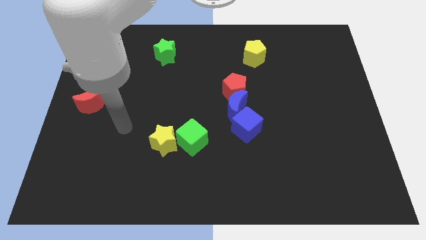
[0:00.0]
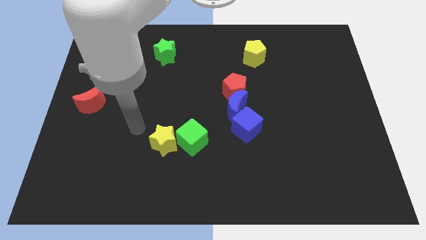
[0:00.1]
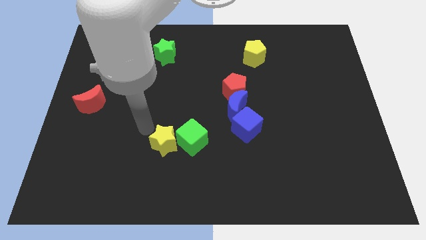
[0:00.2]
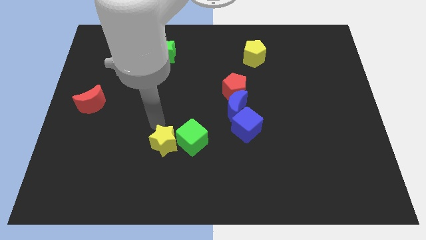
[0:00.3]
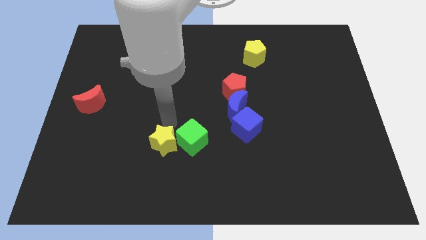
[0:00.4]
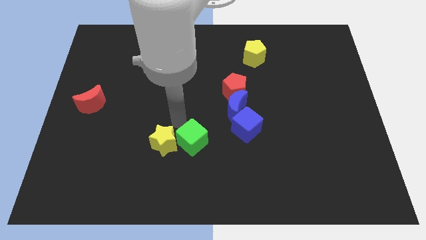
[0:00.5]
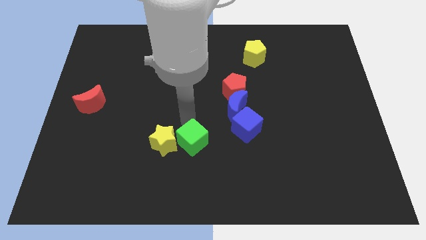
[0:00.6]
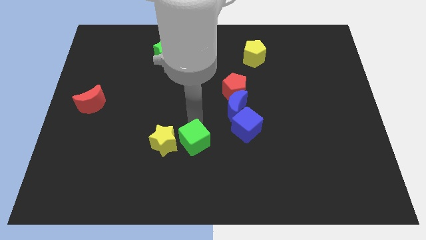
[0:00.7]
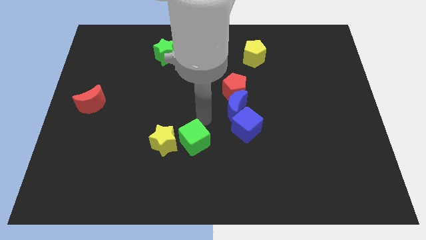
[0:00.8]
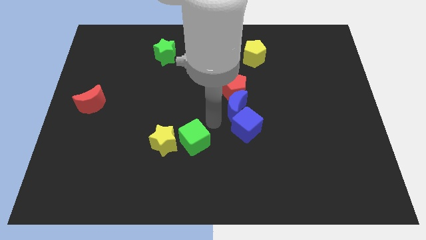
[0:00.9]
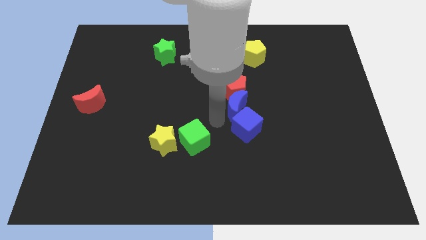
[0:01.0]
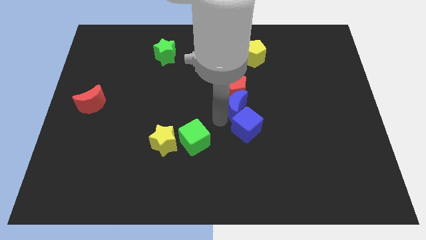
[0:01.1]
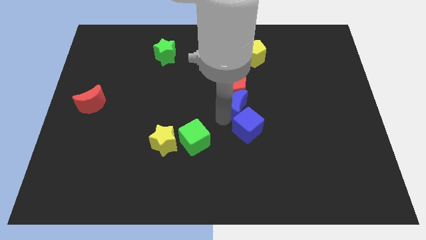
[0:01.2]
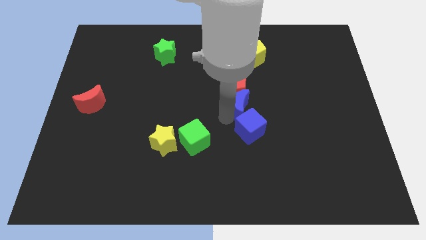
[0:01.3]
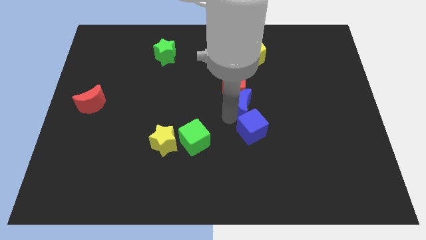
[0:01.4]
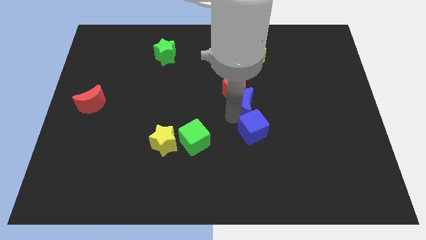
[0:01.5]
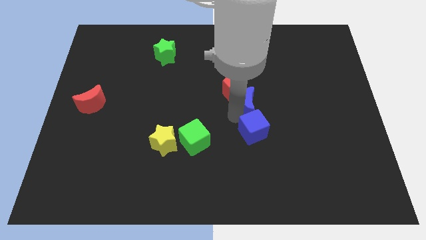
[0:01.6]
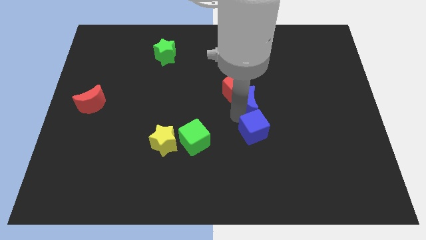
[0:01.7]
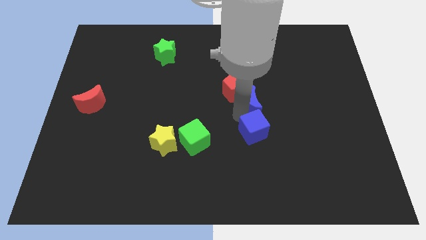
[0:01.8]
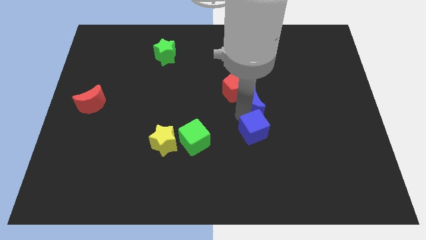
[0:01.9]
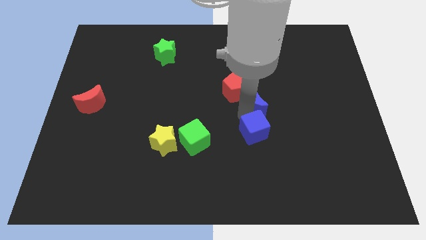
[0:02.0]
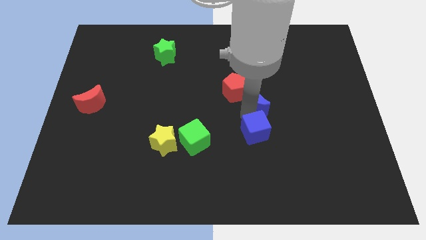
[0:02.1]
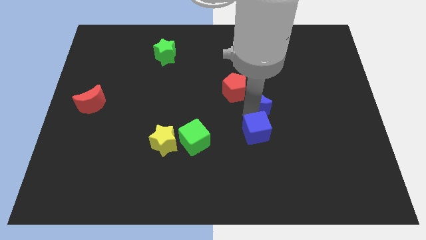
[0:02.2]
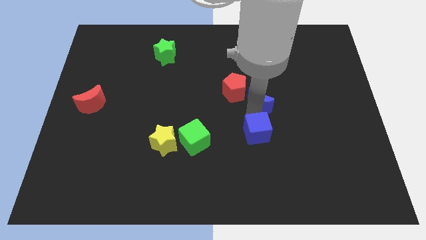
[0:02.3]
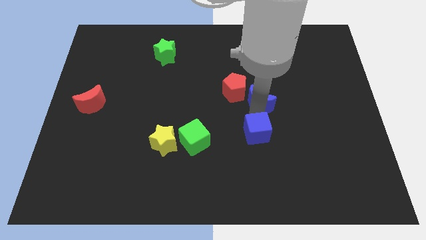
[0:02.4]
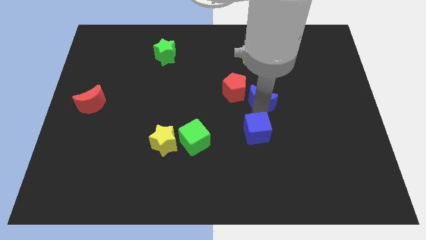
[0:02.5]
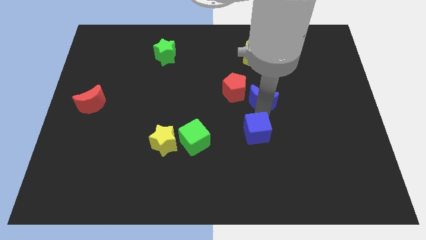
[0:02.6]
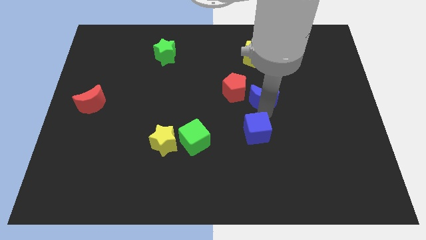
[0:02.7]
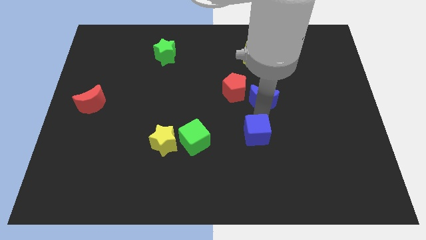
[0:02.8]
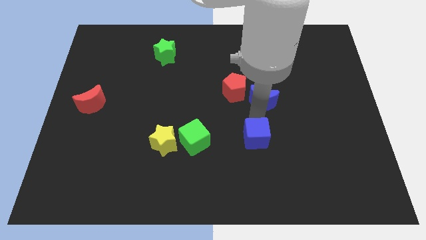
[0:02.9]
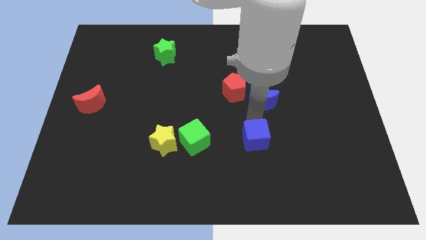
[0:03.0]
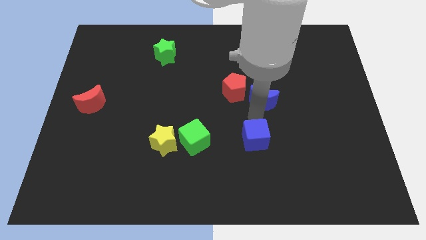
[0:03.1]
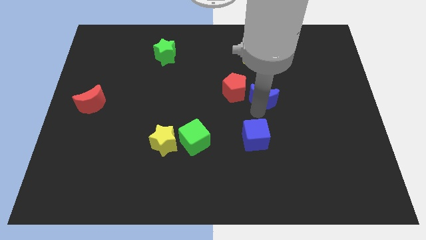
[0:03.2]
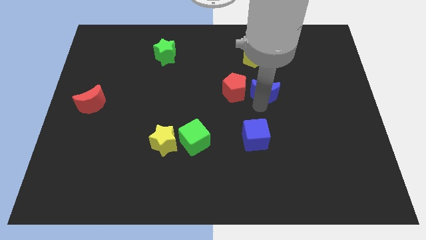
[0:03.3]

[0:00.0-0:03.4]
slide the blue moon diagonally up and right a bit

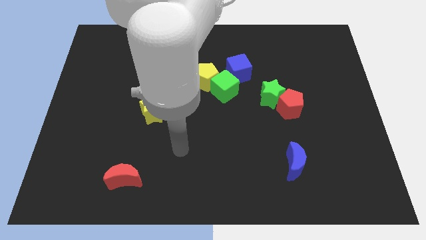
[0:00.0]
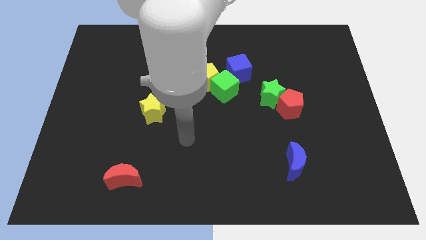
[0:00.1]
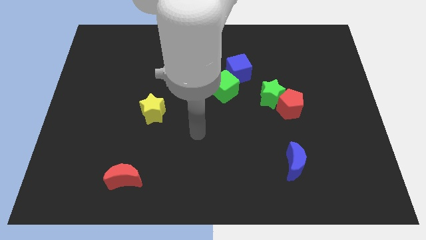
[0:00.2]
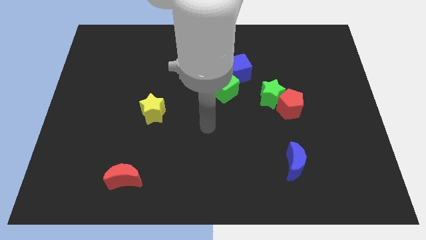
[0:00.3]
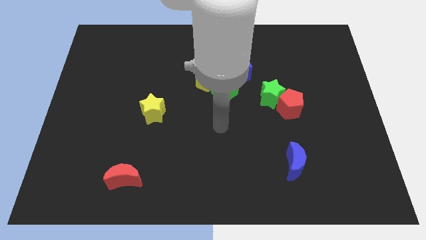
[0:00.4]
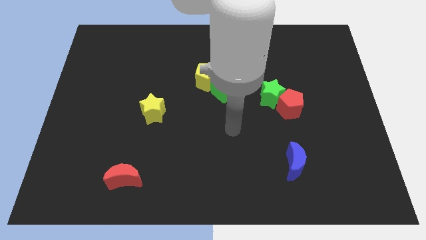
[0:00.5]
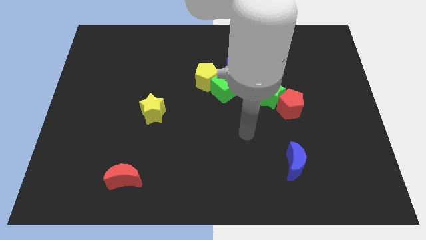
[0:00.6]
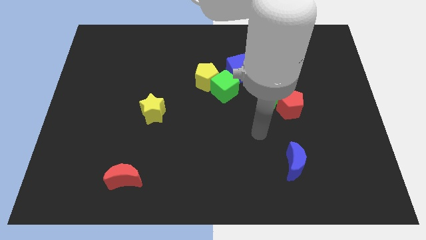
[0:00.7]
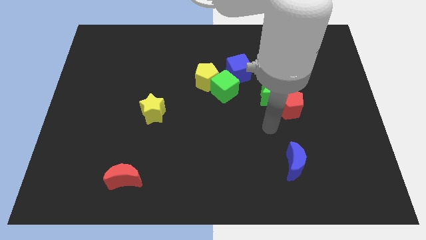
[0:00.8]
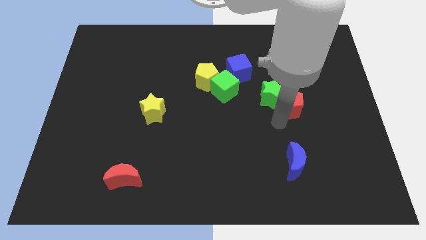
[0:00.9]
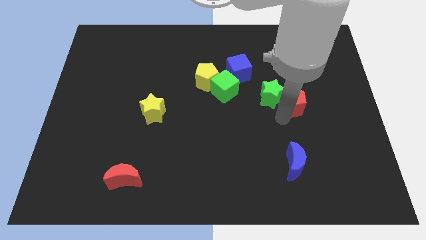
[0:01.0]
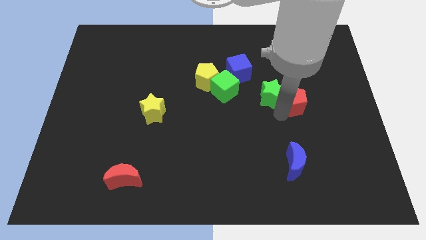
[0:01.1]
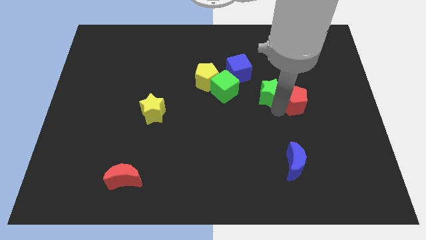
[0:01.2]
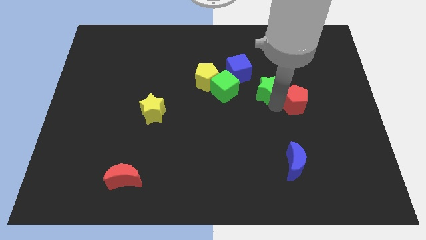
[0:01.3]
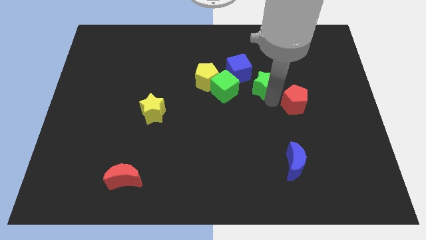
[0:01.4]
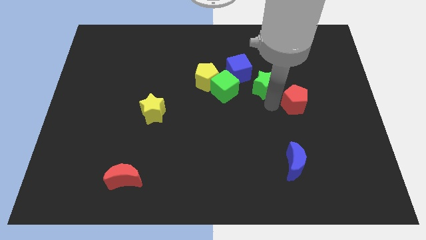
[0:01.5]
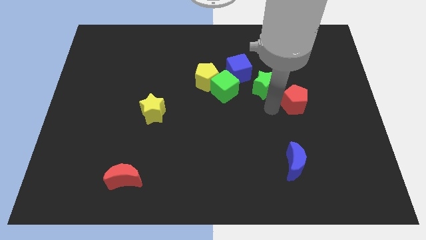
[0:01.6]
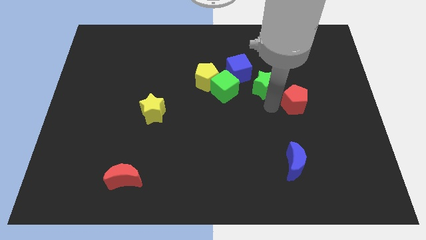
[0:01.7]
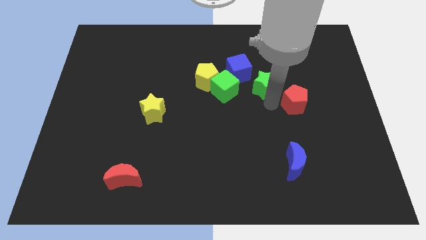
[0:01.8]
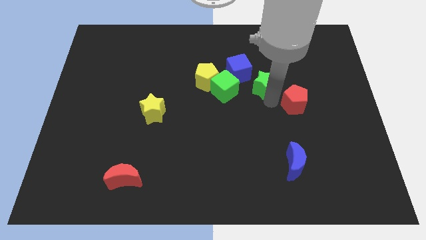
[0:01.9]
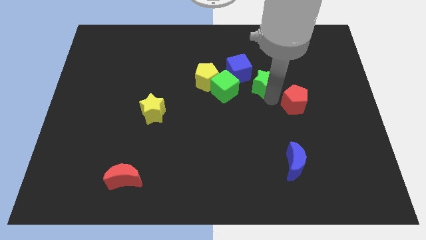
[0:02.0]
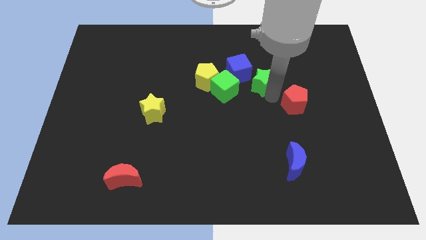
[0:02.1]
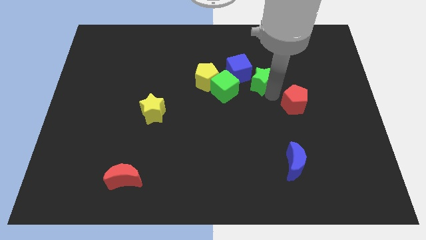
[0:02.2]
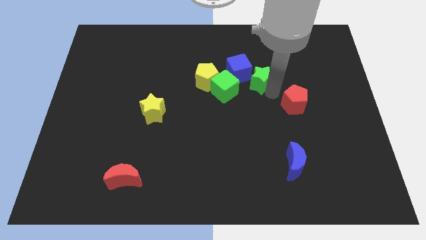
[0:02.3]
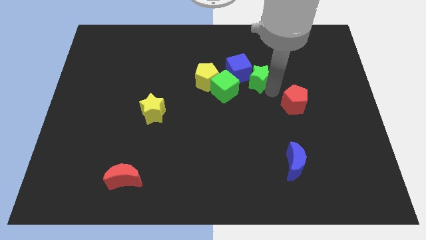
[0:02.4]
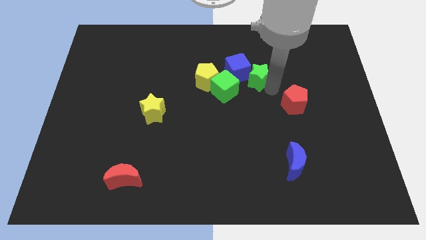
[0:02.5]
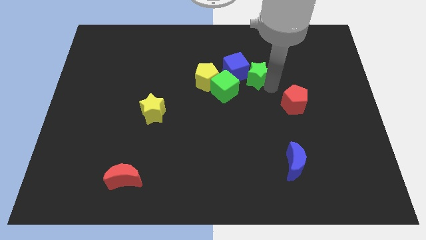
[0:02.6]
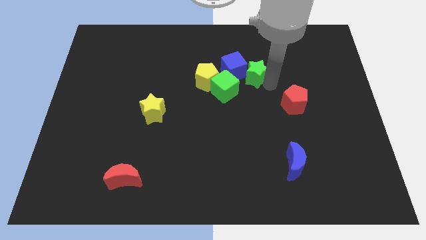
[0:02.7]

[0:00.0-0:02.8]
slide the green star a bit upwards and left diagonally

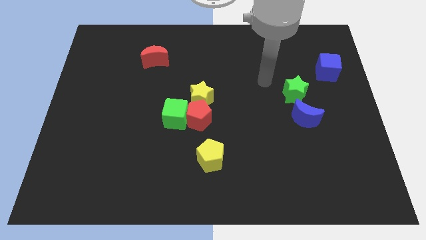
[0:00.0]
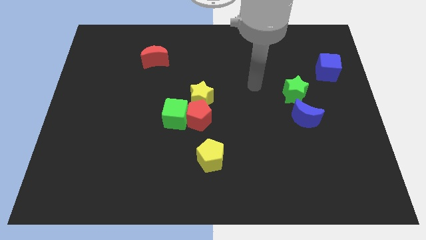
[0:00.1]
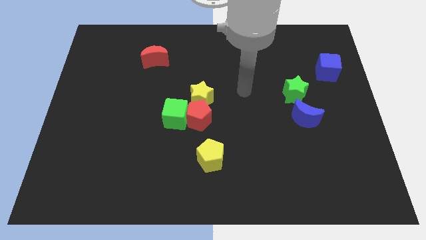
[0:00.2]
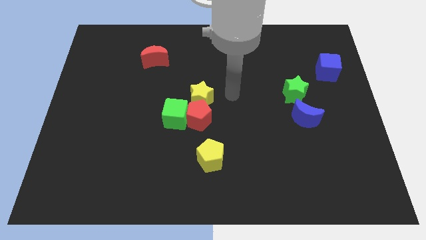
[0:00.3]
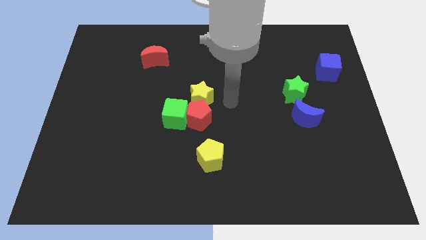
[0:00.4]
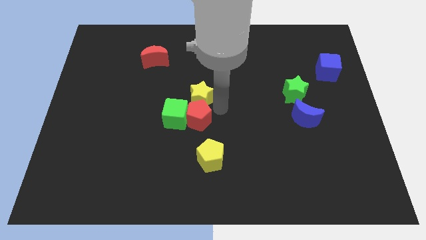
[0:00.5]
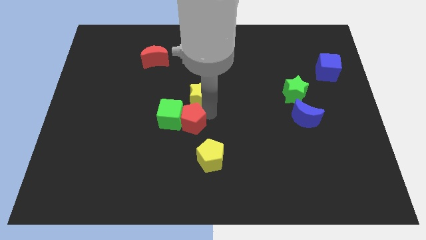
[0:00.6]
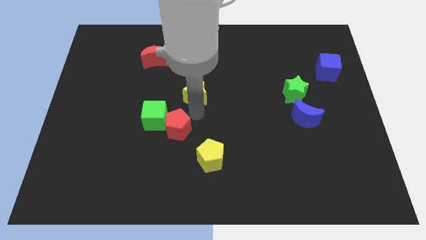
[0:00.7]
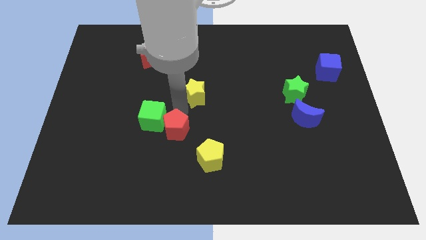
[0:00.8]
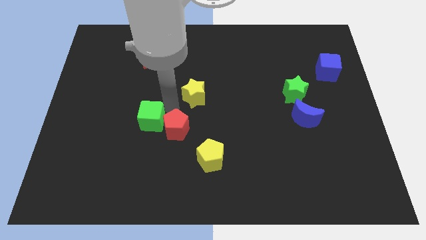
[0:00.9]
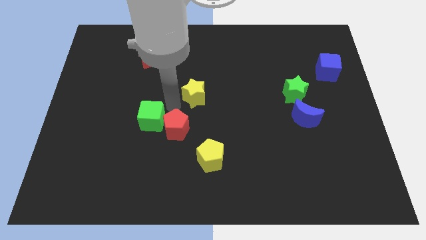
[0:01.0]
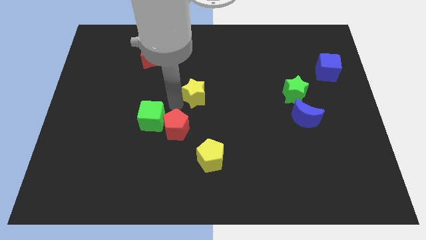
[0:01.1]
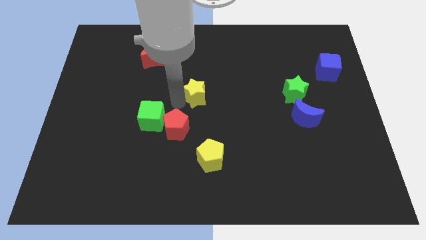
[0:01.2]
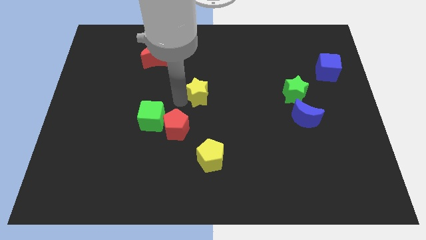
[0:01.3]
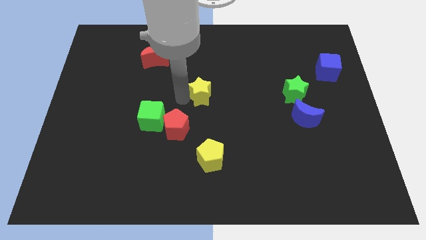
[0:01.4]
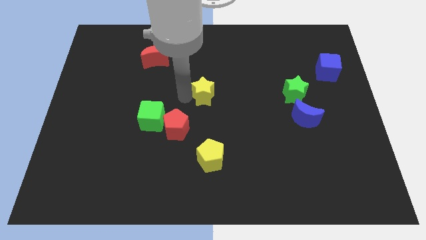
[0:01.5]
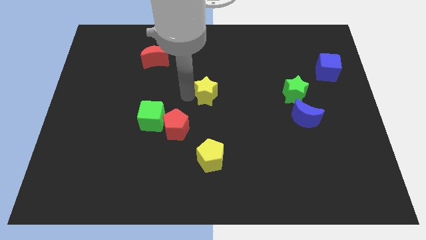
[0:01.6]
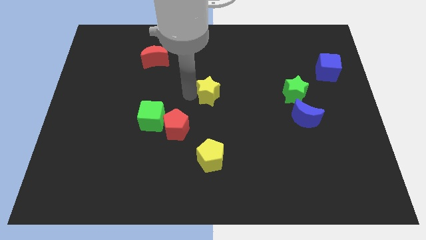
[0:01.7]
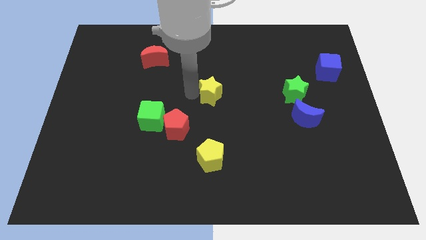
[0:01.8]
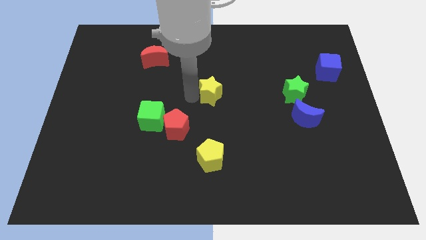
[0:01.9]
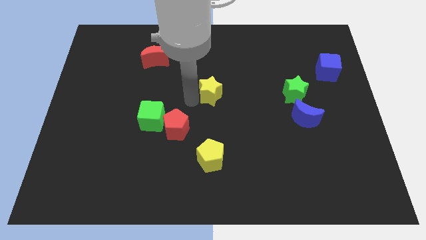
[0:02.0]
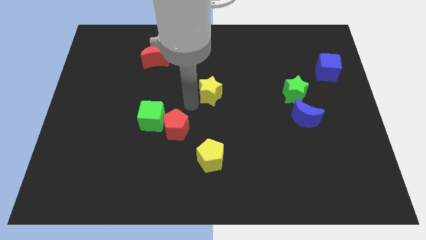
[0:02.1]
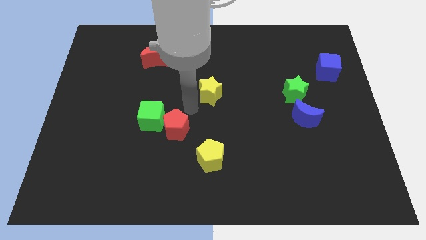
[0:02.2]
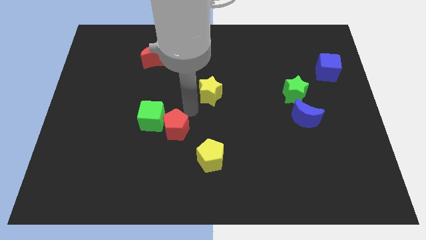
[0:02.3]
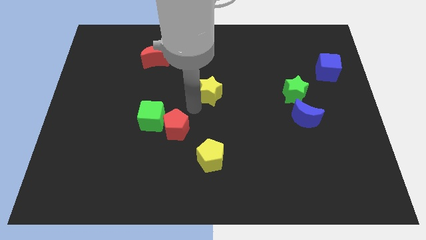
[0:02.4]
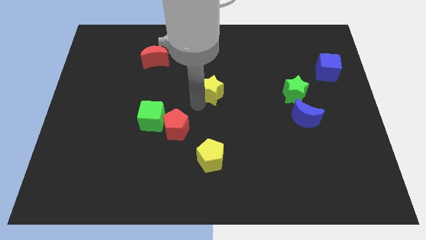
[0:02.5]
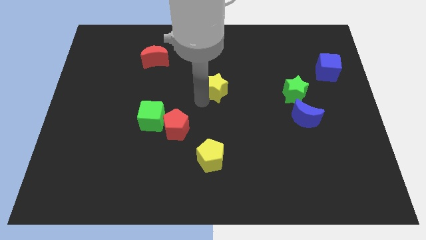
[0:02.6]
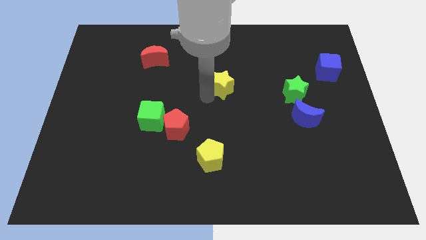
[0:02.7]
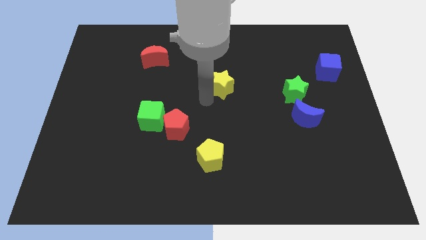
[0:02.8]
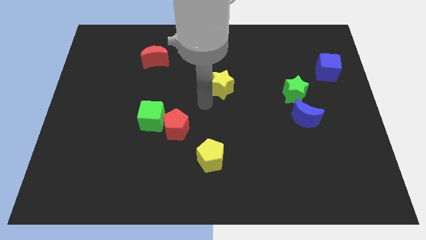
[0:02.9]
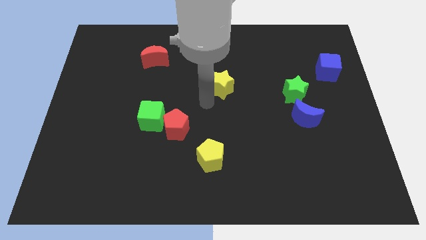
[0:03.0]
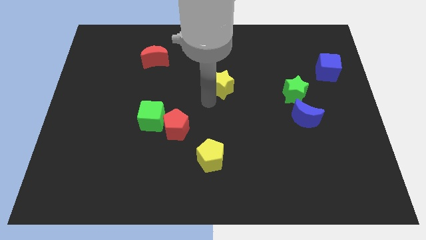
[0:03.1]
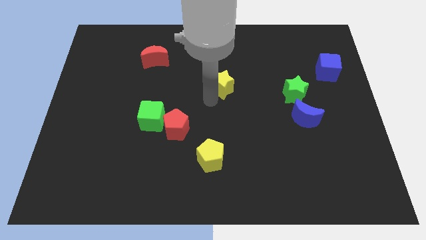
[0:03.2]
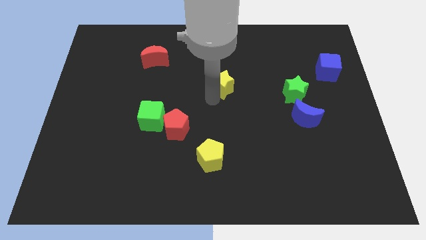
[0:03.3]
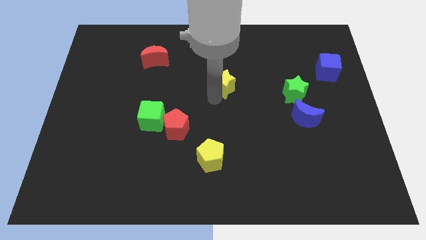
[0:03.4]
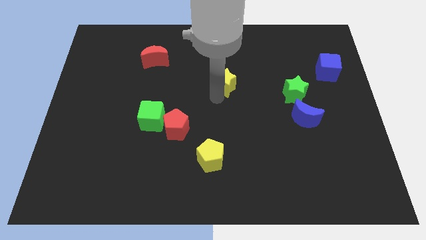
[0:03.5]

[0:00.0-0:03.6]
slightly push the yellow star up and to the right
